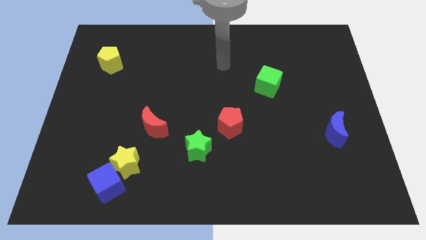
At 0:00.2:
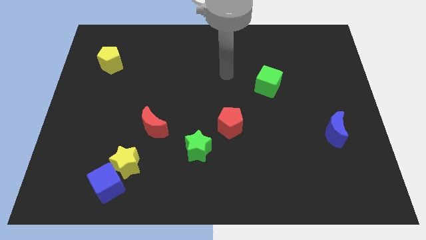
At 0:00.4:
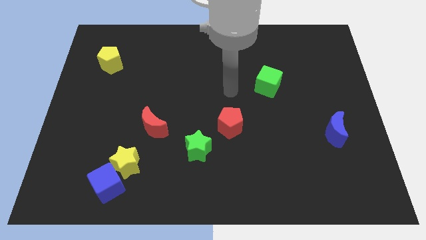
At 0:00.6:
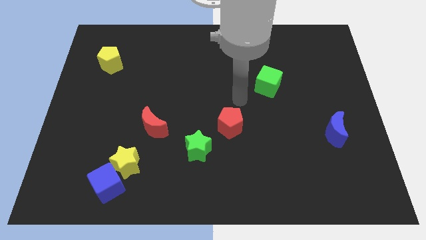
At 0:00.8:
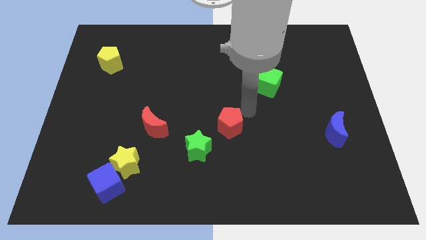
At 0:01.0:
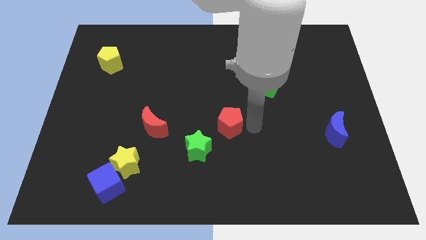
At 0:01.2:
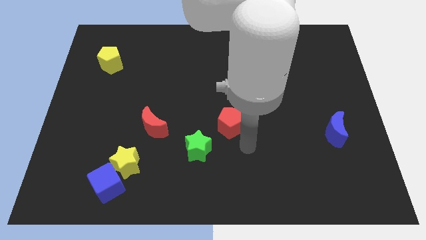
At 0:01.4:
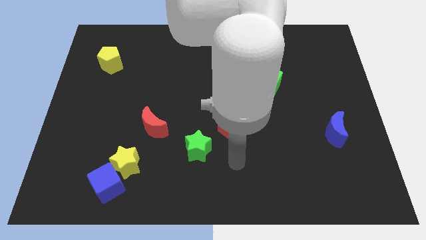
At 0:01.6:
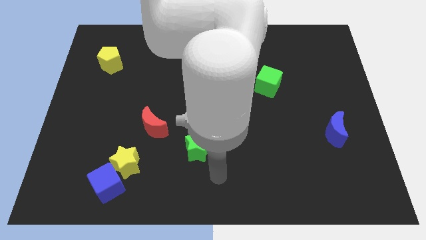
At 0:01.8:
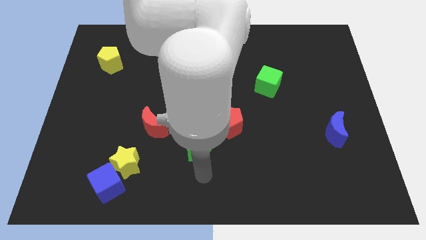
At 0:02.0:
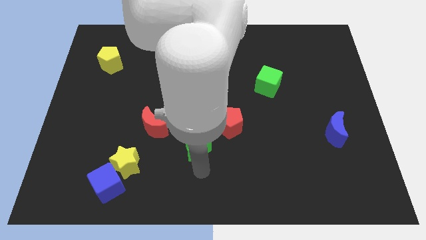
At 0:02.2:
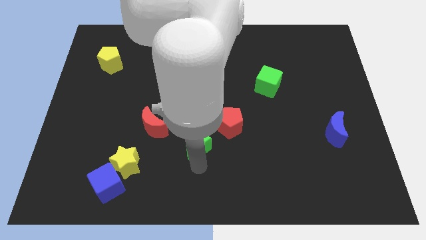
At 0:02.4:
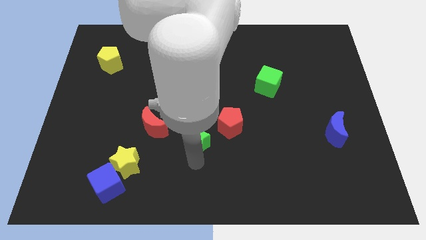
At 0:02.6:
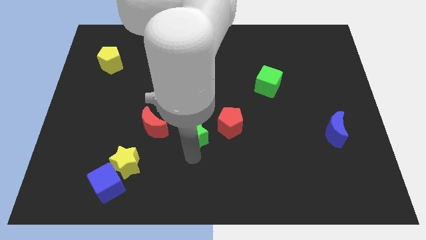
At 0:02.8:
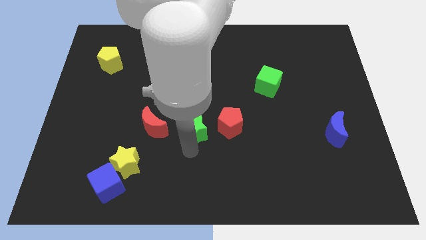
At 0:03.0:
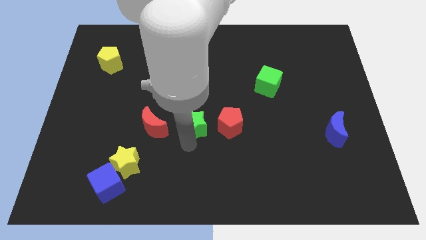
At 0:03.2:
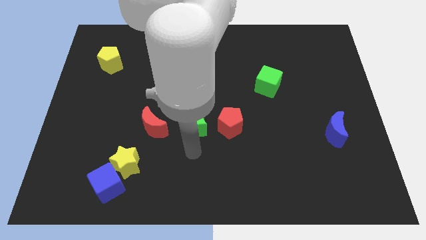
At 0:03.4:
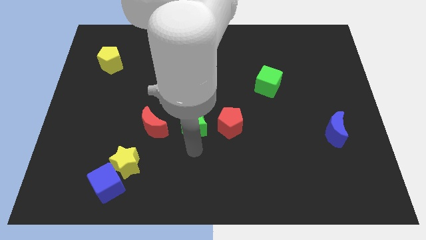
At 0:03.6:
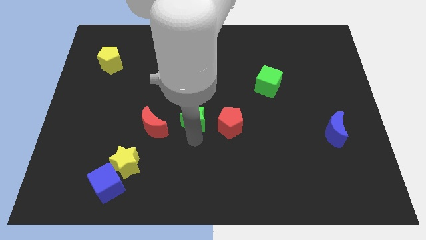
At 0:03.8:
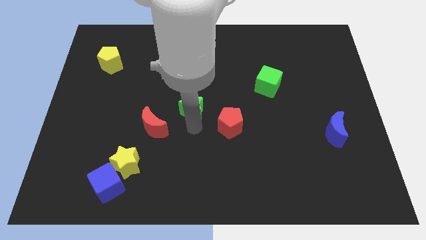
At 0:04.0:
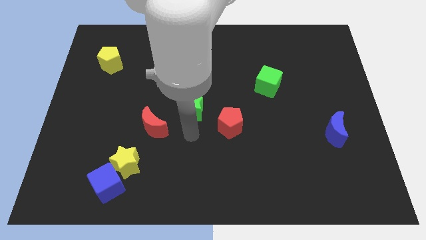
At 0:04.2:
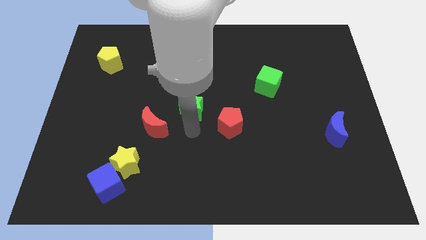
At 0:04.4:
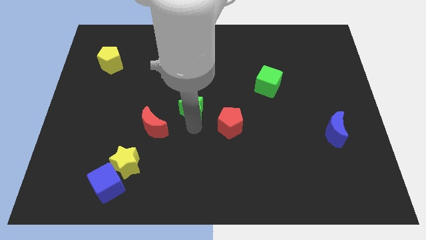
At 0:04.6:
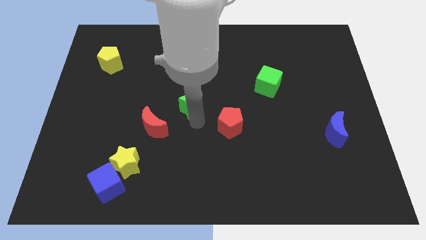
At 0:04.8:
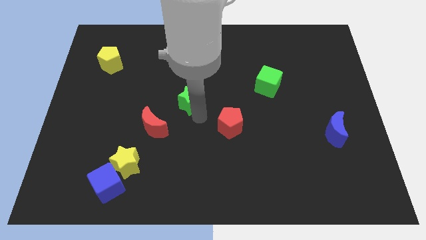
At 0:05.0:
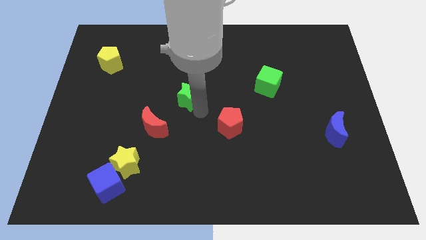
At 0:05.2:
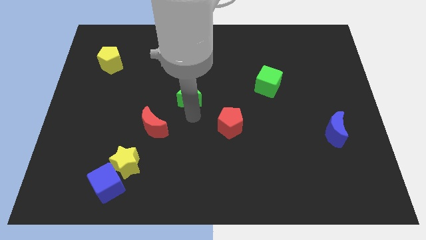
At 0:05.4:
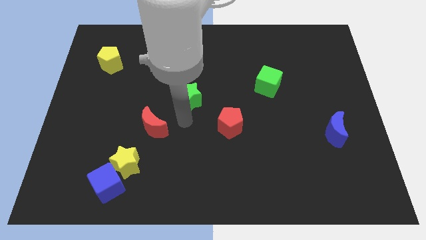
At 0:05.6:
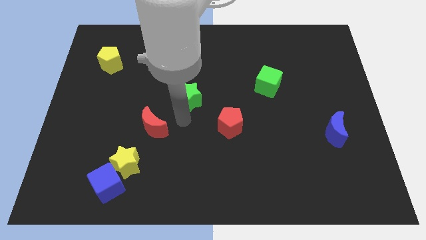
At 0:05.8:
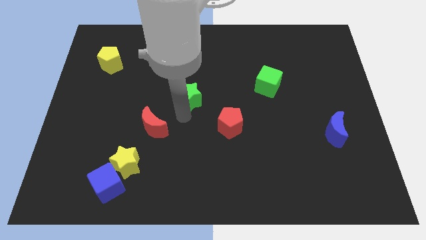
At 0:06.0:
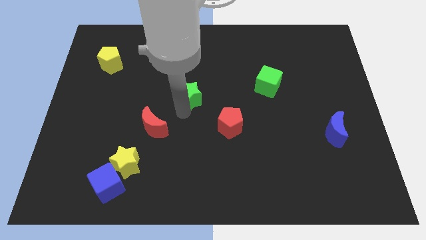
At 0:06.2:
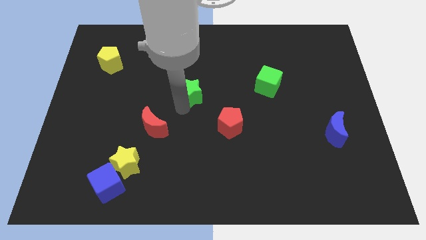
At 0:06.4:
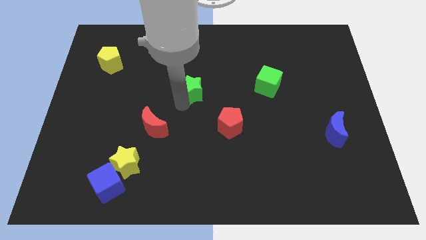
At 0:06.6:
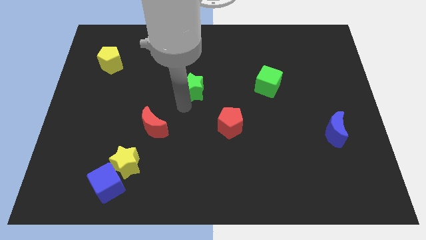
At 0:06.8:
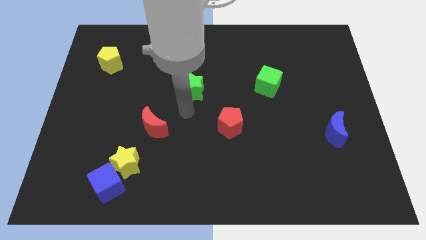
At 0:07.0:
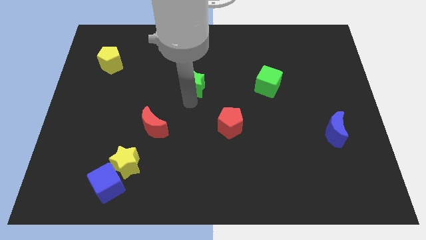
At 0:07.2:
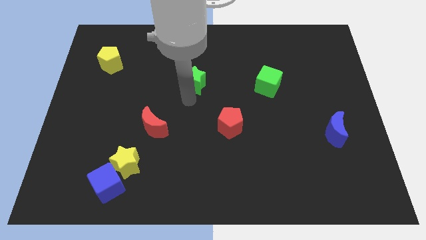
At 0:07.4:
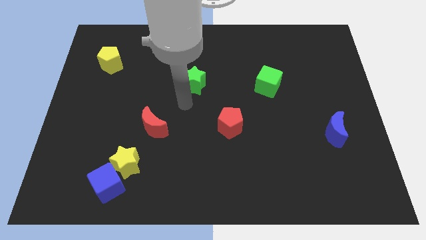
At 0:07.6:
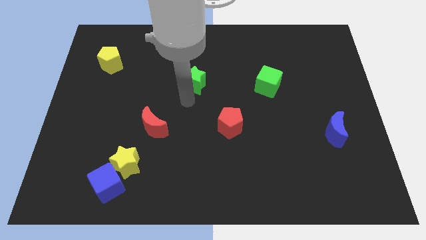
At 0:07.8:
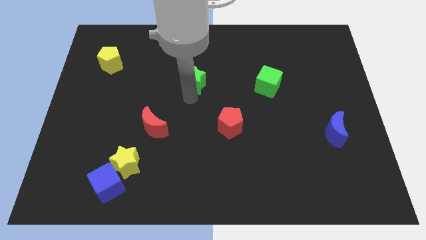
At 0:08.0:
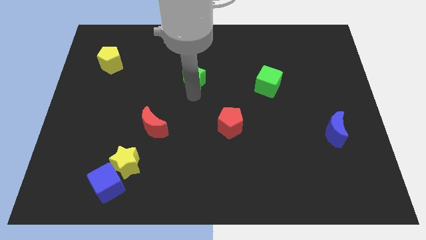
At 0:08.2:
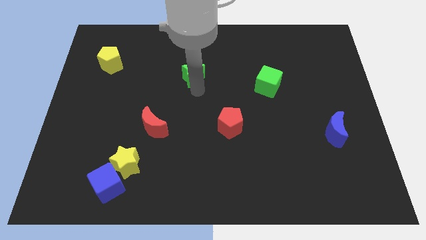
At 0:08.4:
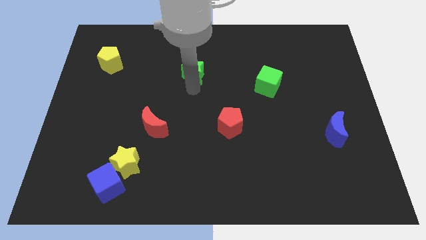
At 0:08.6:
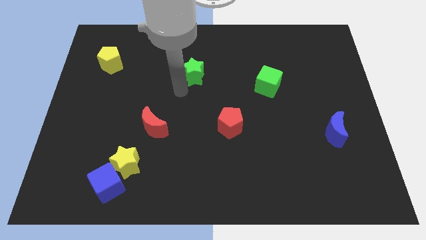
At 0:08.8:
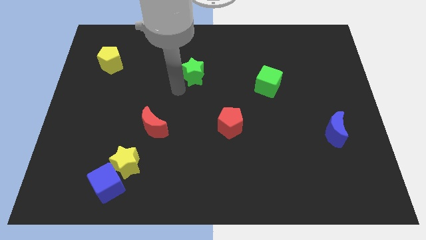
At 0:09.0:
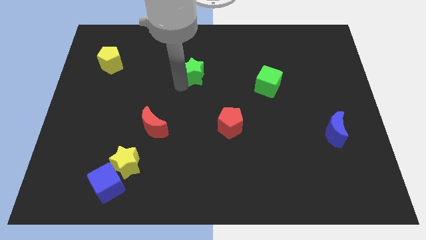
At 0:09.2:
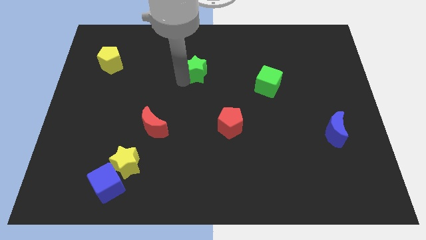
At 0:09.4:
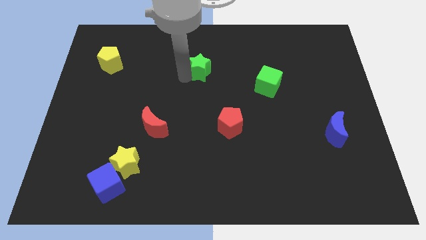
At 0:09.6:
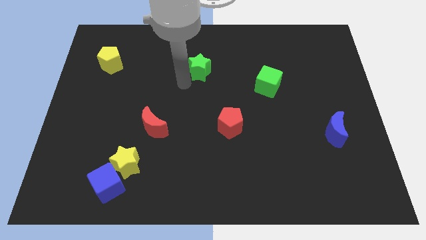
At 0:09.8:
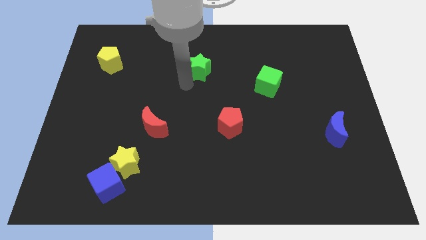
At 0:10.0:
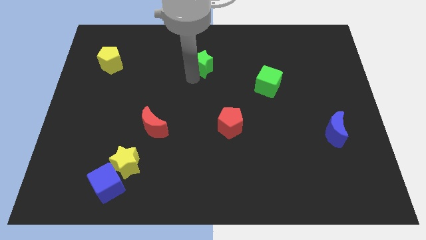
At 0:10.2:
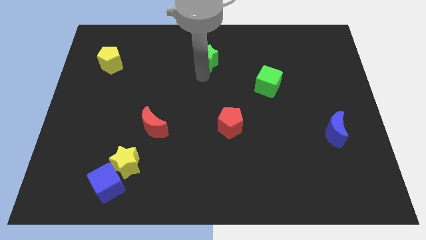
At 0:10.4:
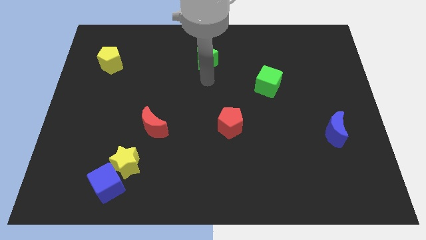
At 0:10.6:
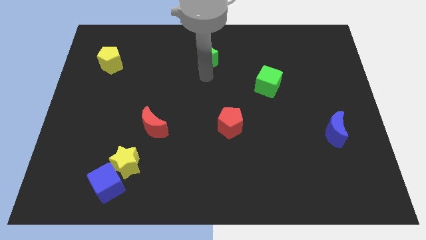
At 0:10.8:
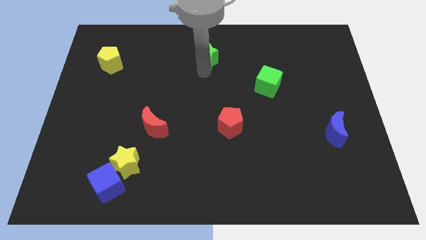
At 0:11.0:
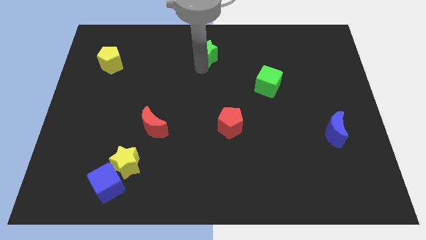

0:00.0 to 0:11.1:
move the green star to the top side
